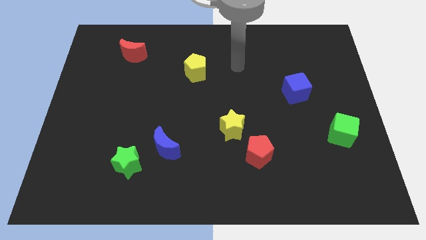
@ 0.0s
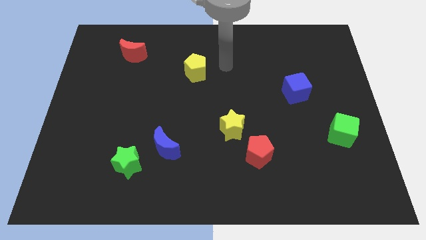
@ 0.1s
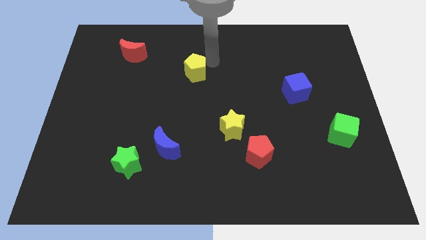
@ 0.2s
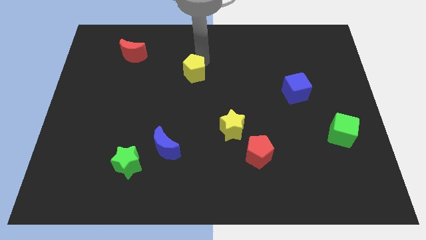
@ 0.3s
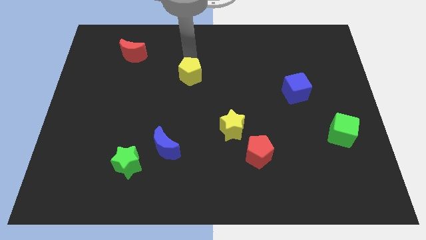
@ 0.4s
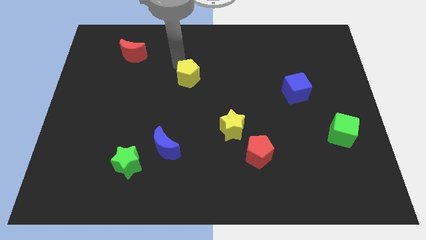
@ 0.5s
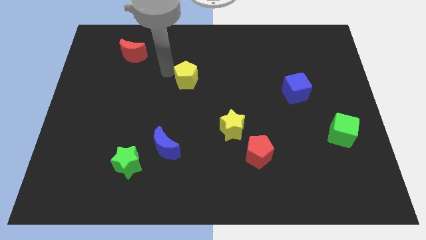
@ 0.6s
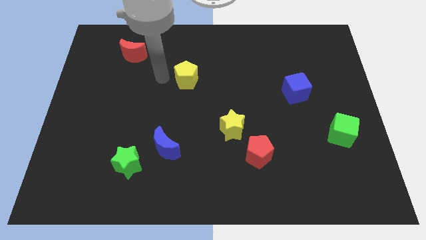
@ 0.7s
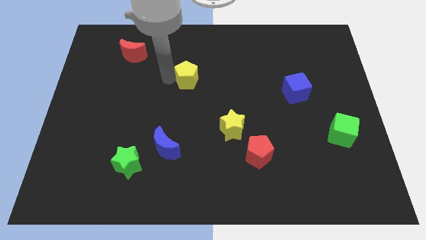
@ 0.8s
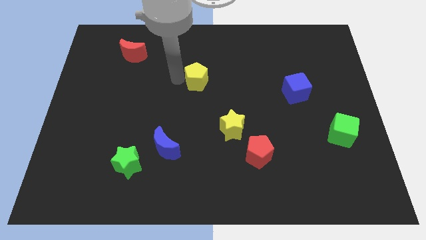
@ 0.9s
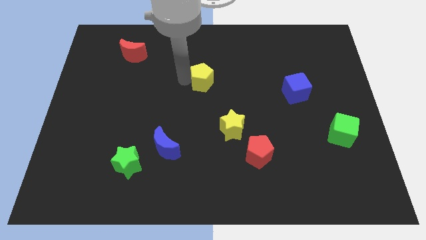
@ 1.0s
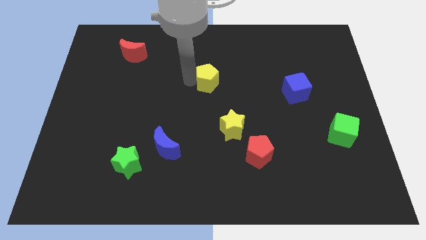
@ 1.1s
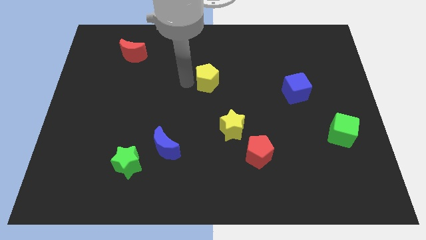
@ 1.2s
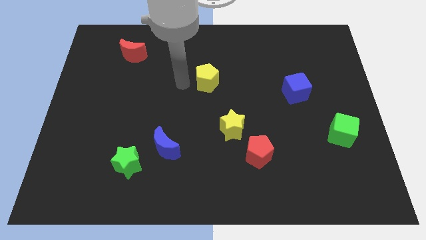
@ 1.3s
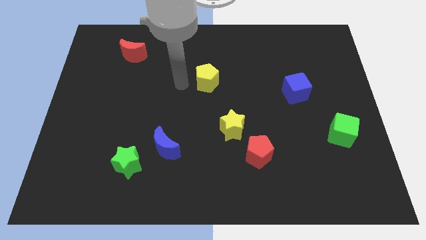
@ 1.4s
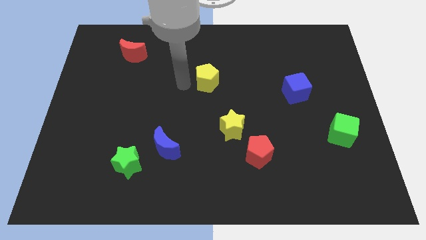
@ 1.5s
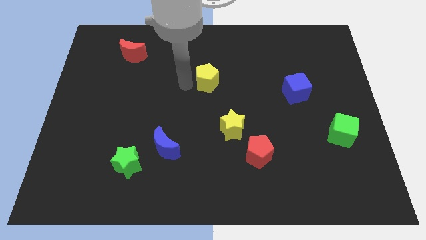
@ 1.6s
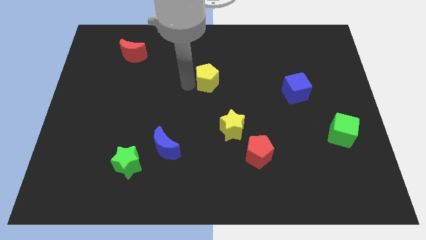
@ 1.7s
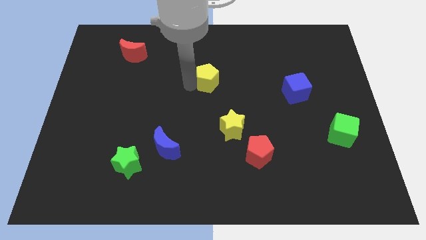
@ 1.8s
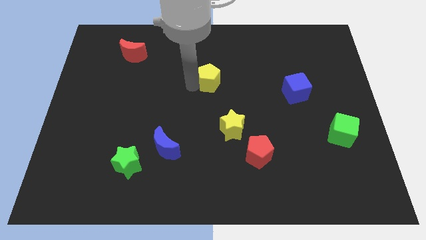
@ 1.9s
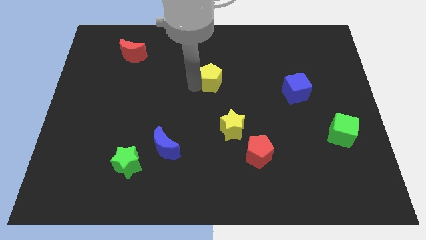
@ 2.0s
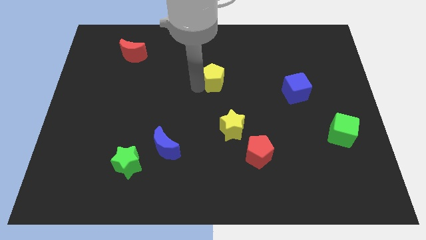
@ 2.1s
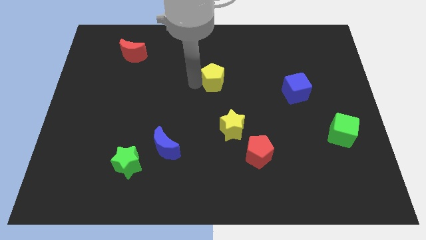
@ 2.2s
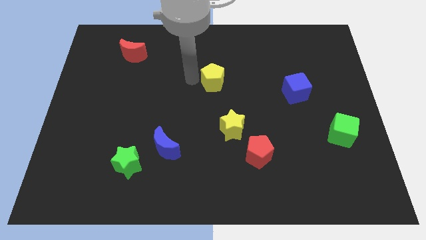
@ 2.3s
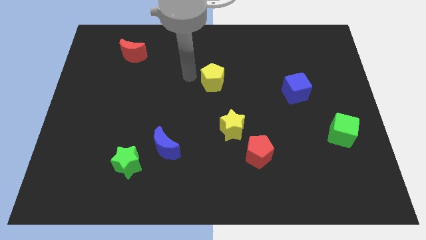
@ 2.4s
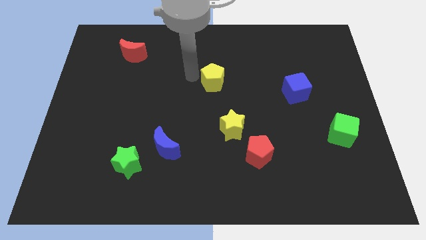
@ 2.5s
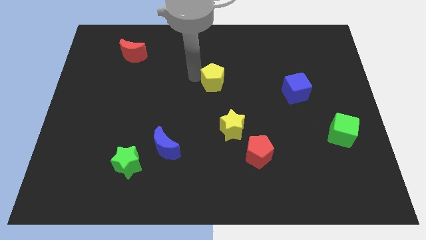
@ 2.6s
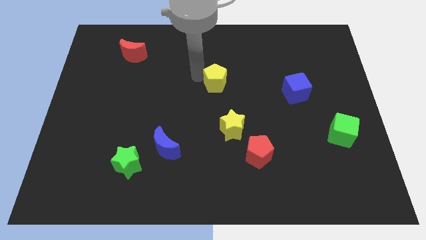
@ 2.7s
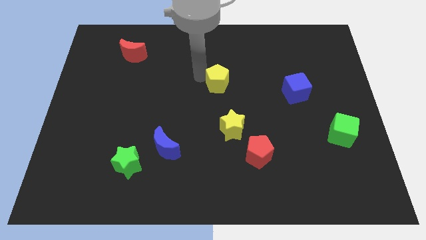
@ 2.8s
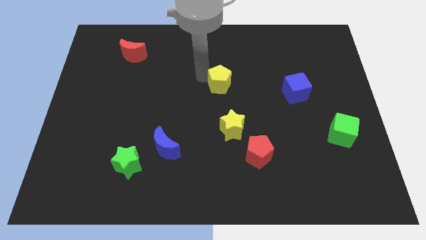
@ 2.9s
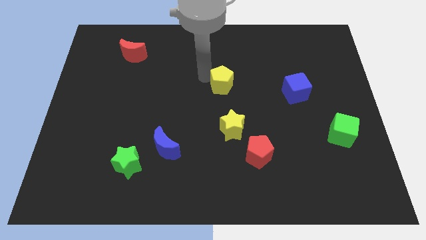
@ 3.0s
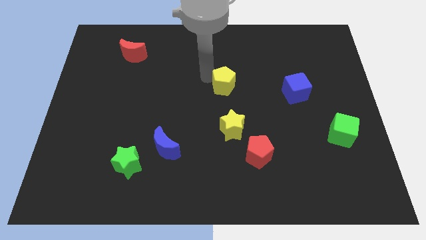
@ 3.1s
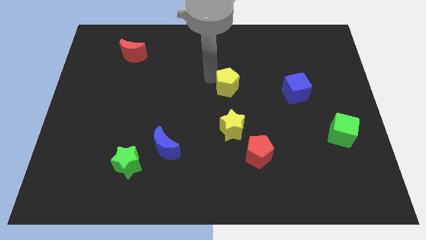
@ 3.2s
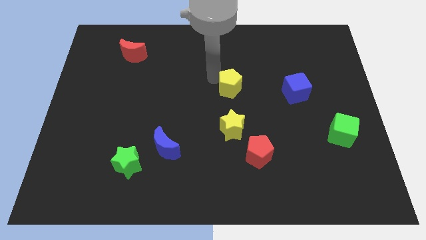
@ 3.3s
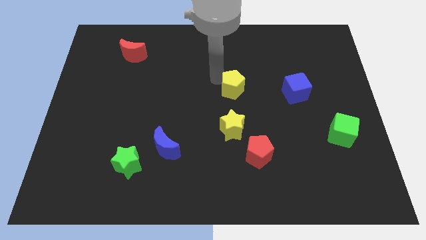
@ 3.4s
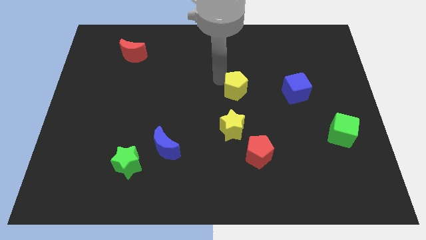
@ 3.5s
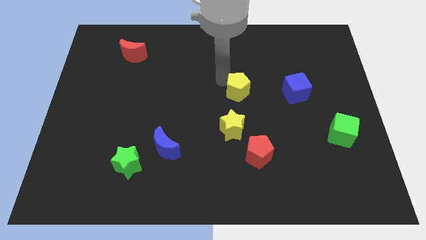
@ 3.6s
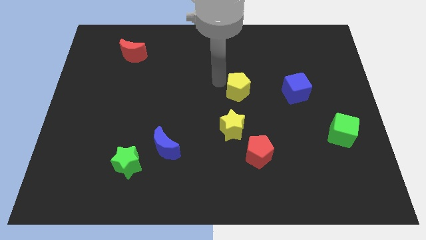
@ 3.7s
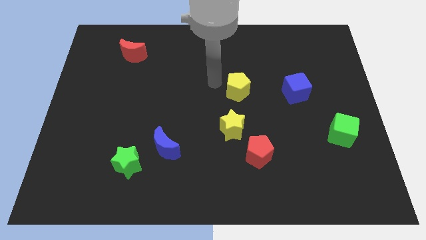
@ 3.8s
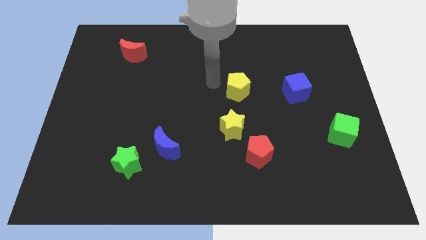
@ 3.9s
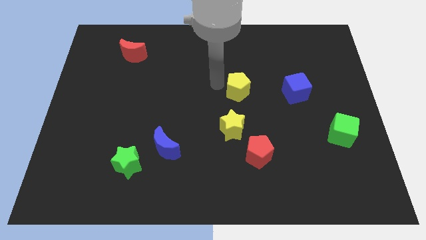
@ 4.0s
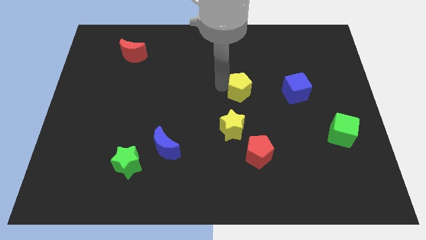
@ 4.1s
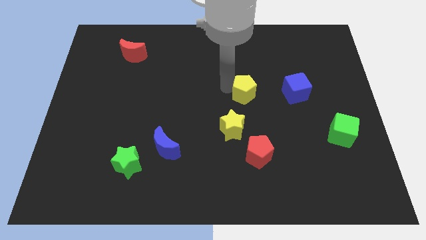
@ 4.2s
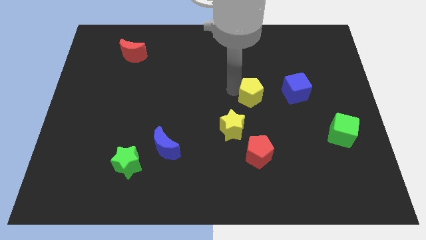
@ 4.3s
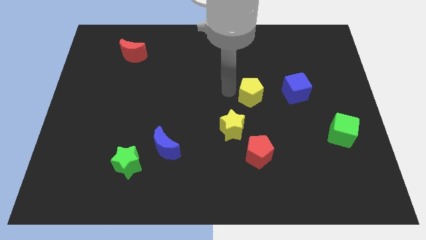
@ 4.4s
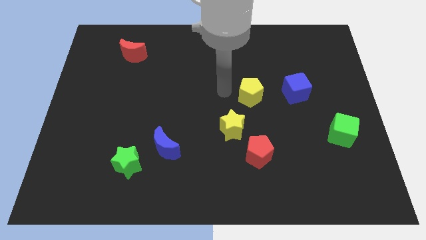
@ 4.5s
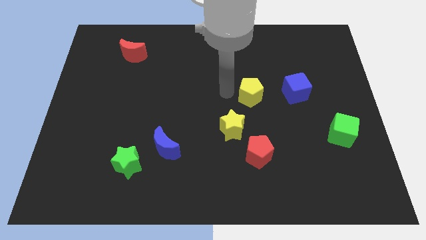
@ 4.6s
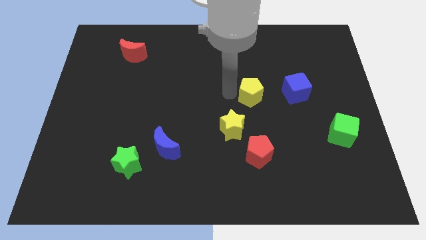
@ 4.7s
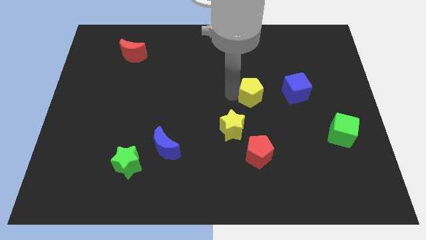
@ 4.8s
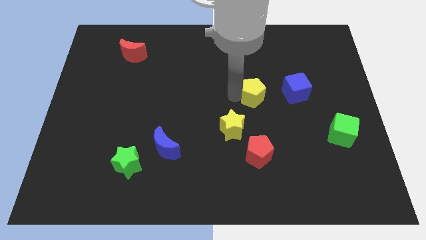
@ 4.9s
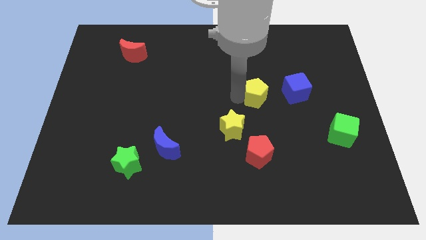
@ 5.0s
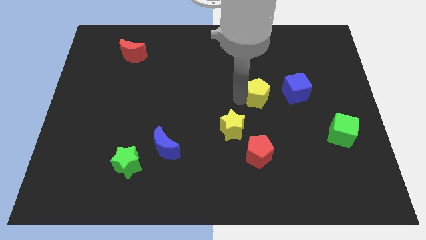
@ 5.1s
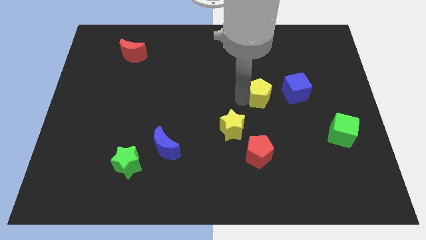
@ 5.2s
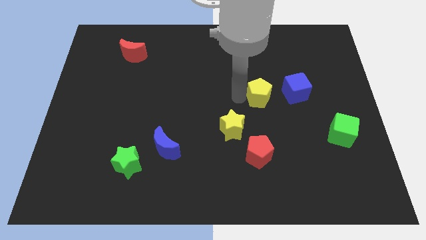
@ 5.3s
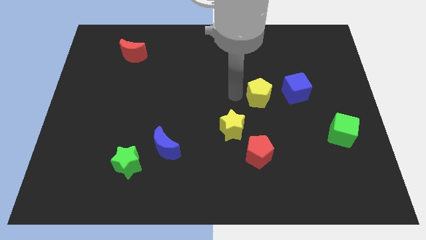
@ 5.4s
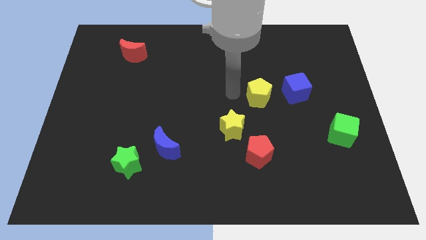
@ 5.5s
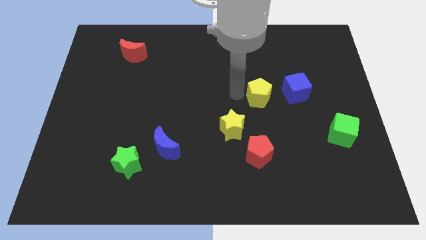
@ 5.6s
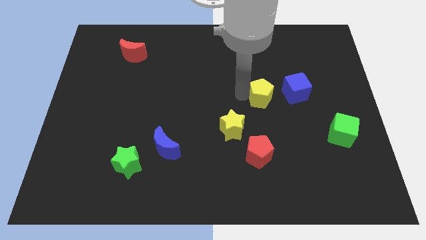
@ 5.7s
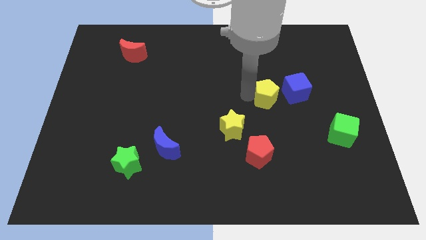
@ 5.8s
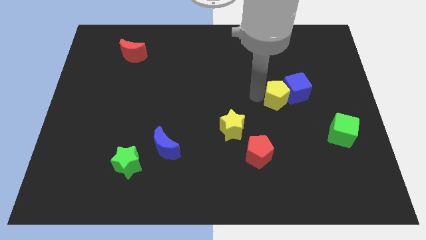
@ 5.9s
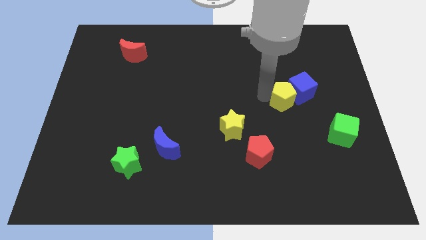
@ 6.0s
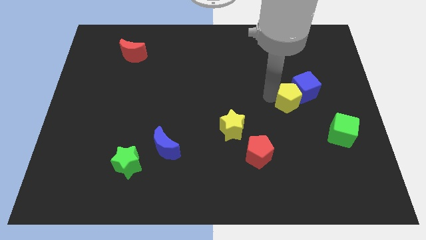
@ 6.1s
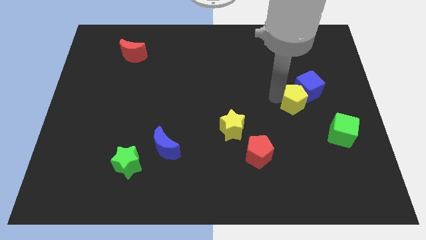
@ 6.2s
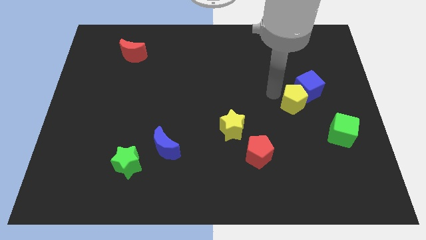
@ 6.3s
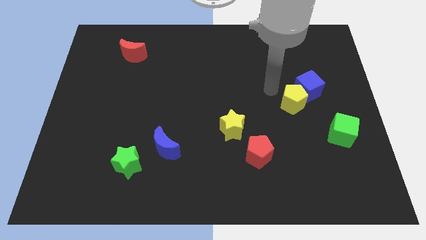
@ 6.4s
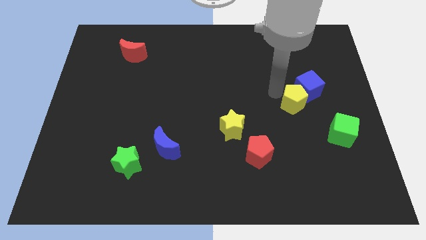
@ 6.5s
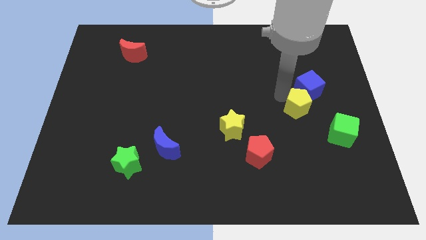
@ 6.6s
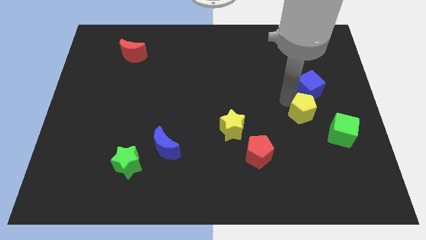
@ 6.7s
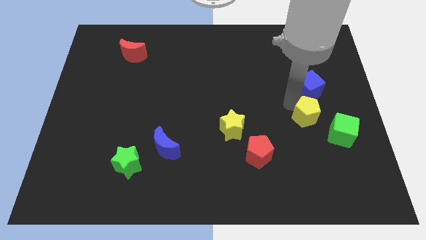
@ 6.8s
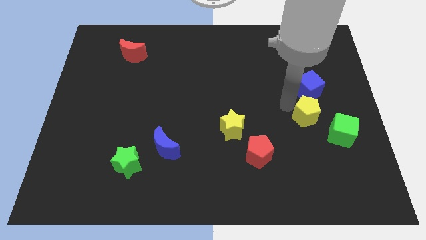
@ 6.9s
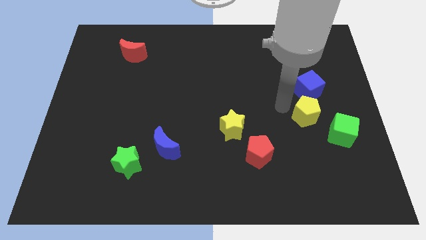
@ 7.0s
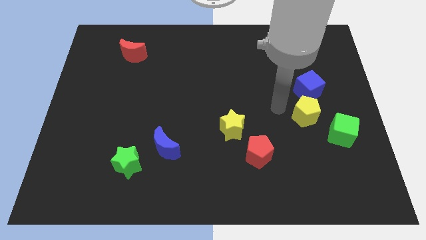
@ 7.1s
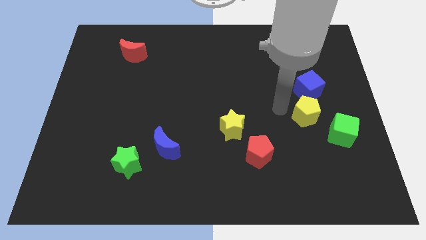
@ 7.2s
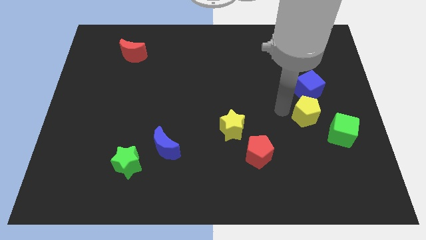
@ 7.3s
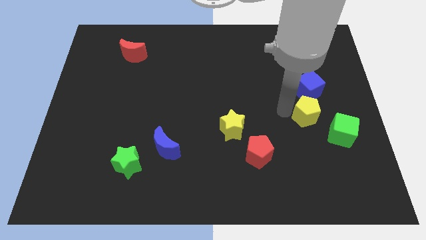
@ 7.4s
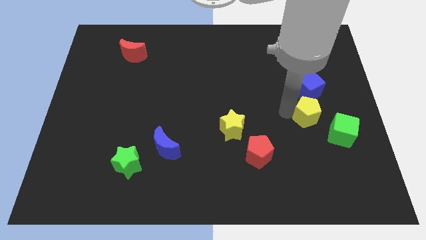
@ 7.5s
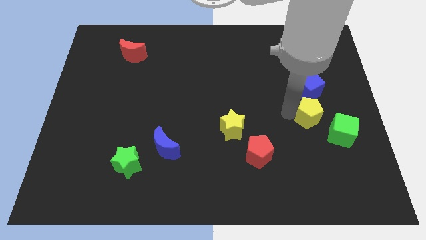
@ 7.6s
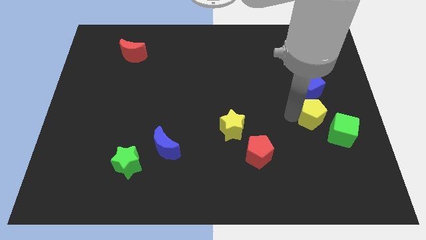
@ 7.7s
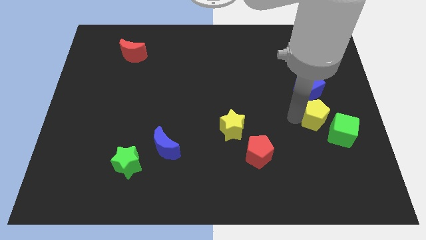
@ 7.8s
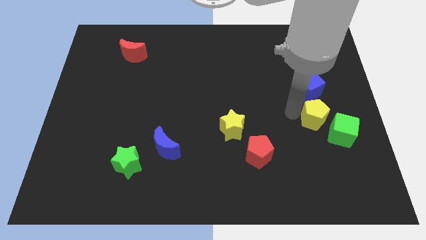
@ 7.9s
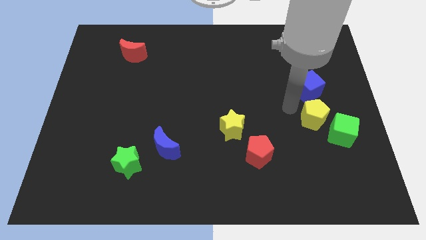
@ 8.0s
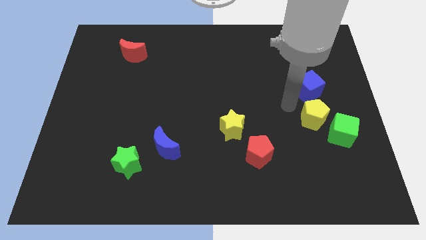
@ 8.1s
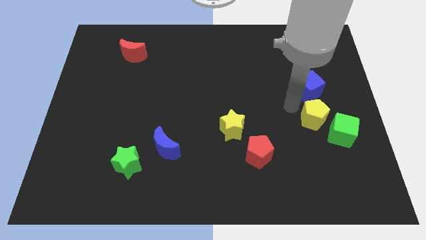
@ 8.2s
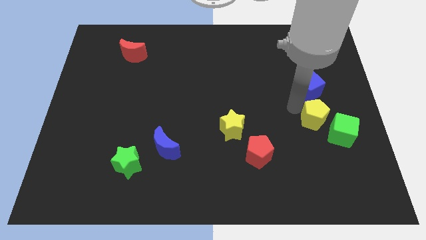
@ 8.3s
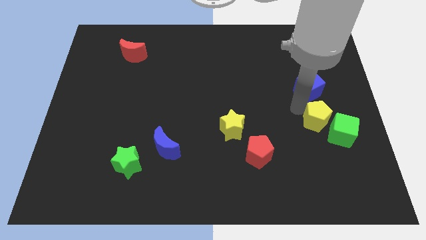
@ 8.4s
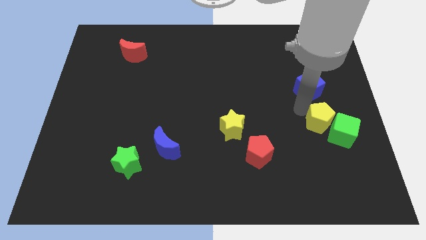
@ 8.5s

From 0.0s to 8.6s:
push the yellow pentagon next to the green cube
